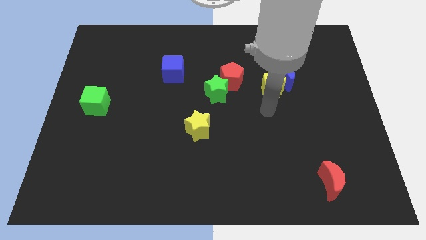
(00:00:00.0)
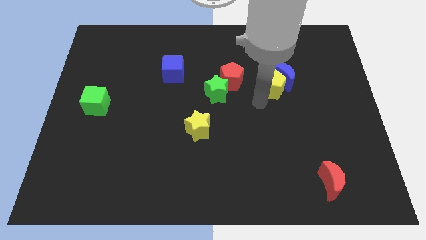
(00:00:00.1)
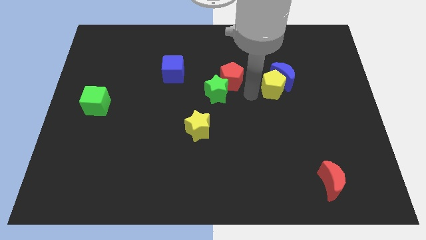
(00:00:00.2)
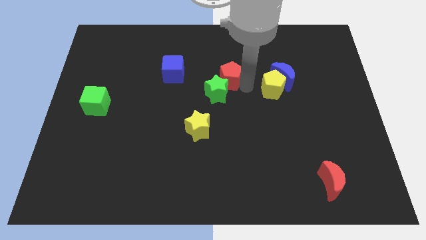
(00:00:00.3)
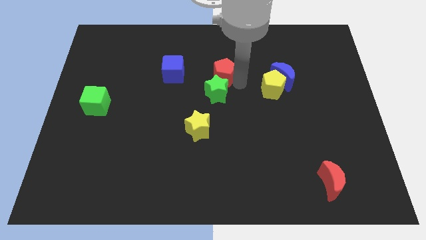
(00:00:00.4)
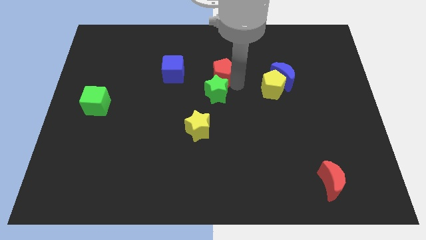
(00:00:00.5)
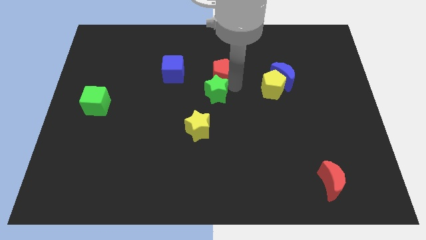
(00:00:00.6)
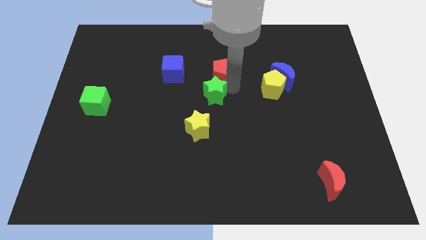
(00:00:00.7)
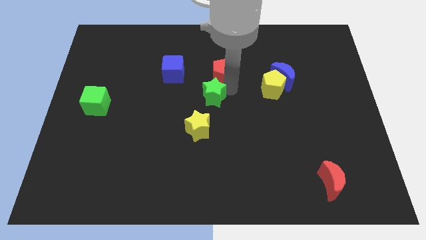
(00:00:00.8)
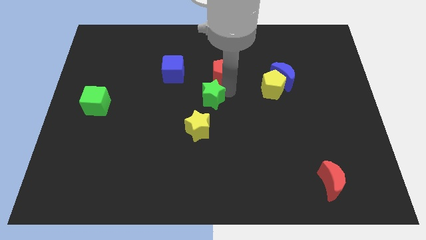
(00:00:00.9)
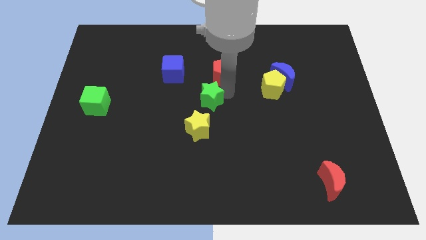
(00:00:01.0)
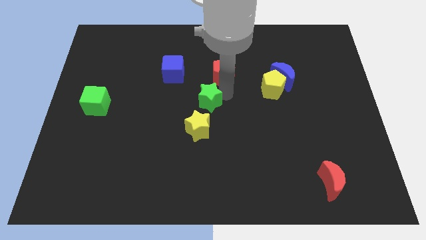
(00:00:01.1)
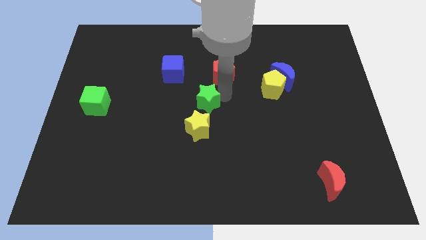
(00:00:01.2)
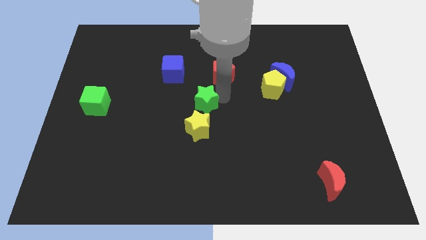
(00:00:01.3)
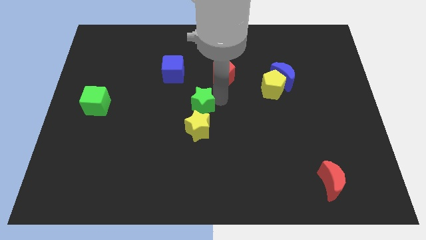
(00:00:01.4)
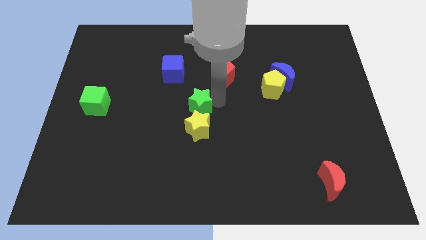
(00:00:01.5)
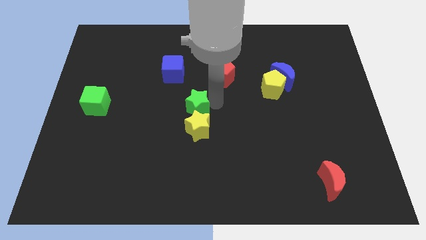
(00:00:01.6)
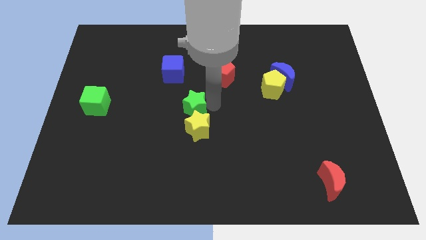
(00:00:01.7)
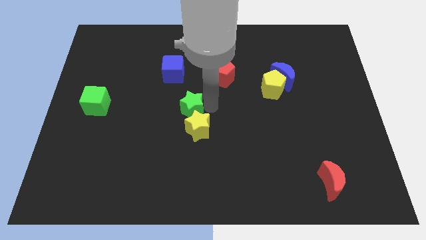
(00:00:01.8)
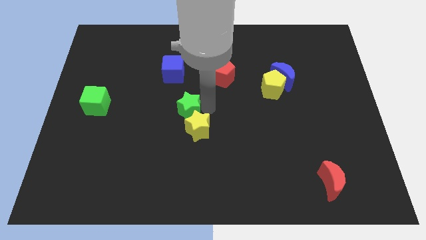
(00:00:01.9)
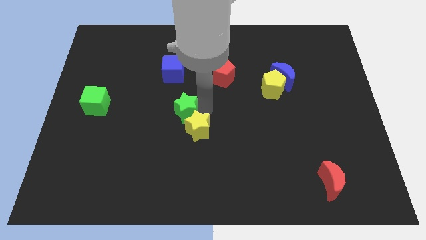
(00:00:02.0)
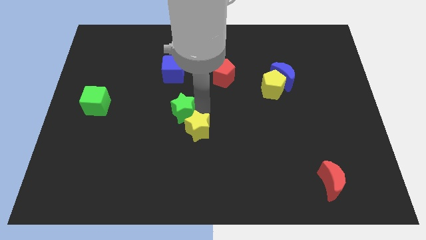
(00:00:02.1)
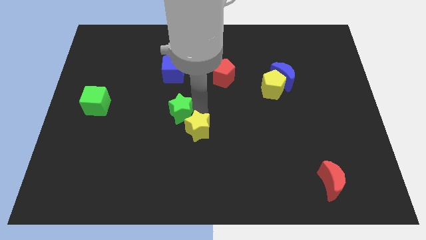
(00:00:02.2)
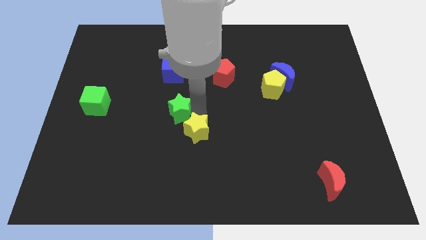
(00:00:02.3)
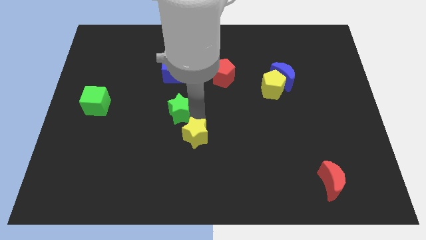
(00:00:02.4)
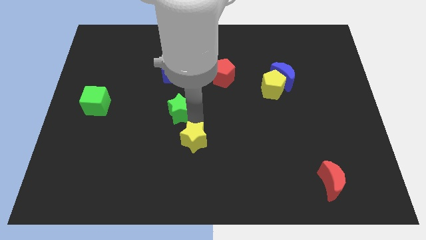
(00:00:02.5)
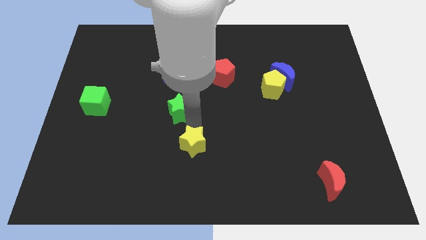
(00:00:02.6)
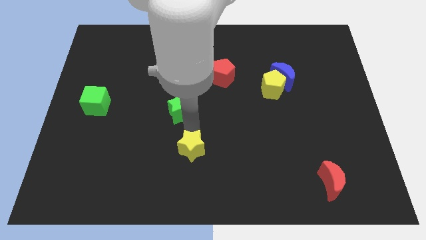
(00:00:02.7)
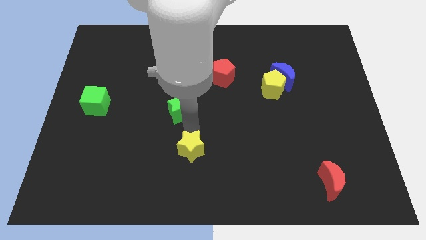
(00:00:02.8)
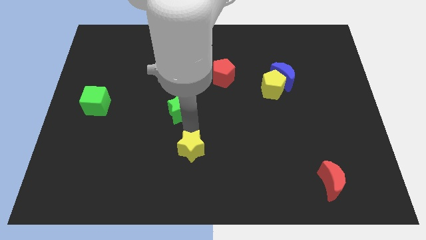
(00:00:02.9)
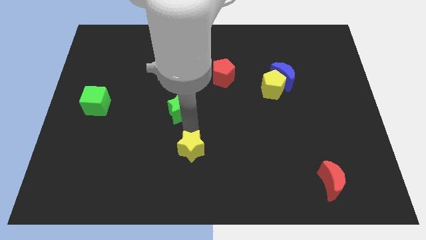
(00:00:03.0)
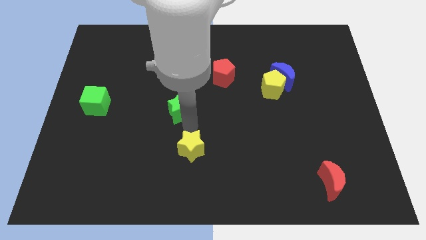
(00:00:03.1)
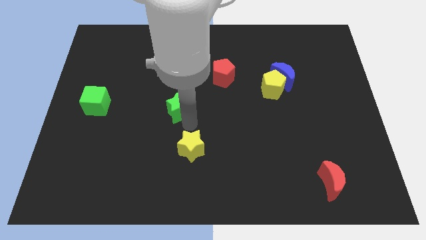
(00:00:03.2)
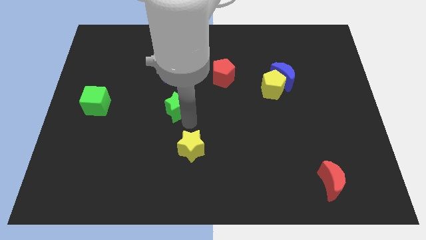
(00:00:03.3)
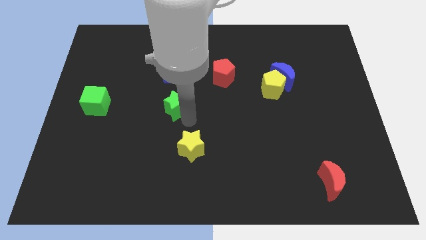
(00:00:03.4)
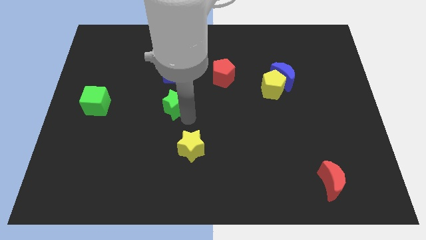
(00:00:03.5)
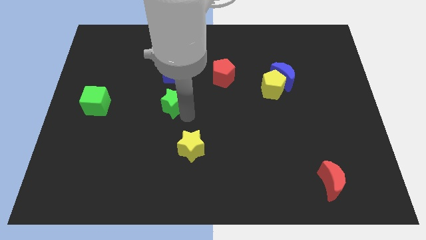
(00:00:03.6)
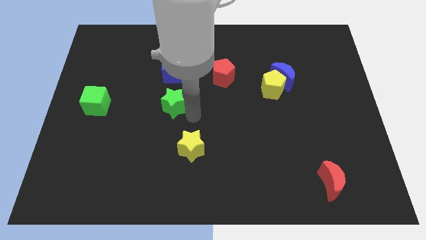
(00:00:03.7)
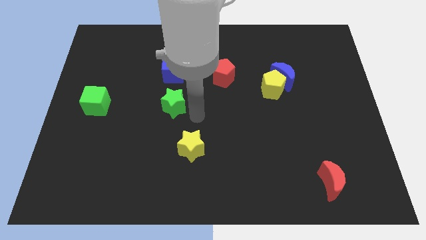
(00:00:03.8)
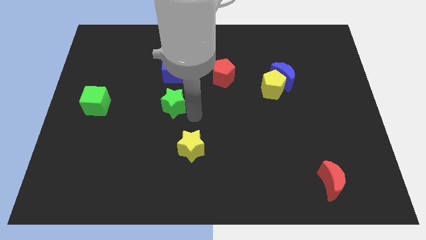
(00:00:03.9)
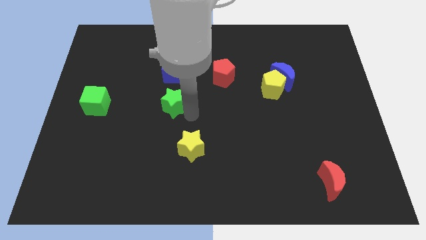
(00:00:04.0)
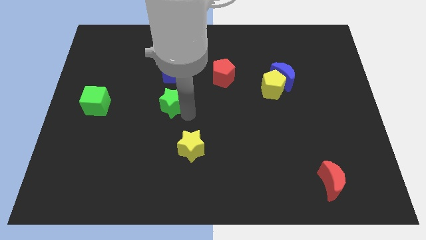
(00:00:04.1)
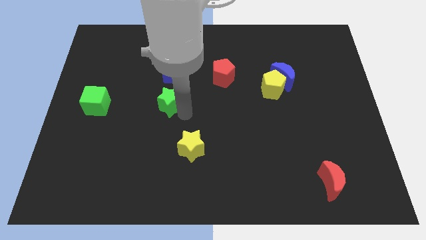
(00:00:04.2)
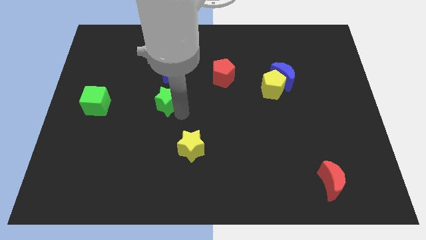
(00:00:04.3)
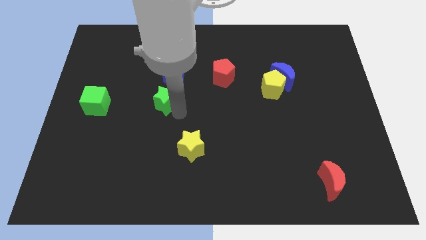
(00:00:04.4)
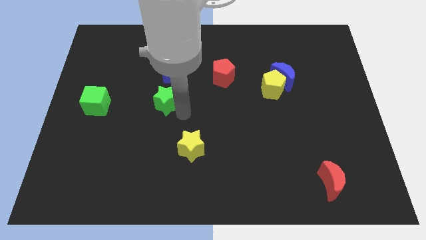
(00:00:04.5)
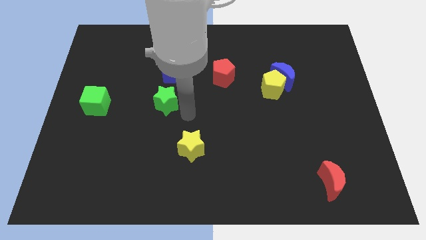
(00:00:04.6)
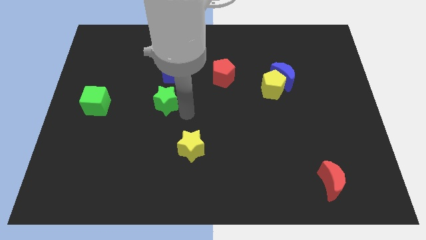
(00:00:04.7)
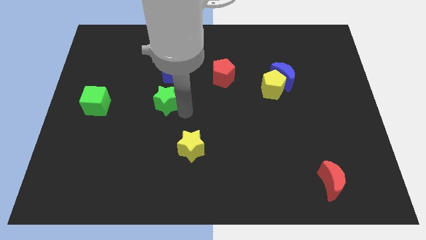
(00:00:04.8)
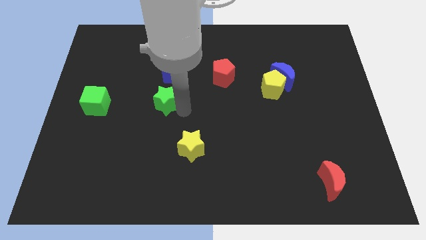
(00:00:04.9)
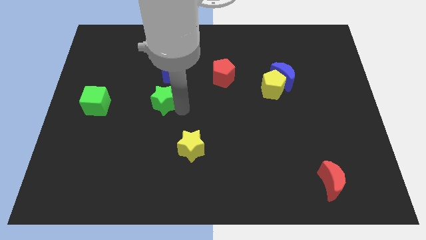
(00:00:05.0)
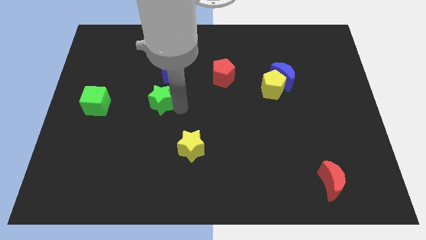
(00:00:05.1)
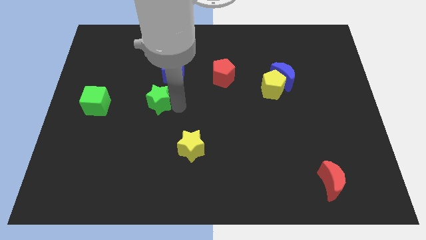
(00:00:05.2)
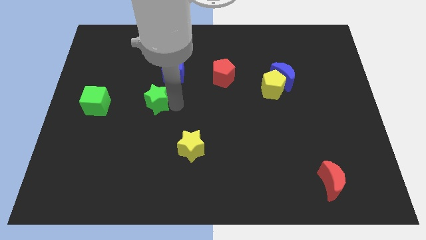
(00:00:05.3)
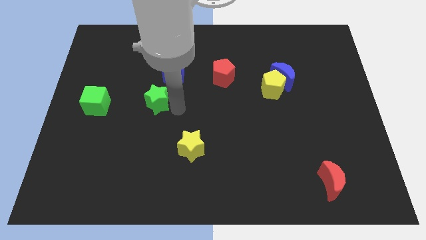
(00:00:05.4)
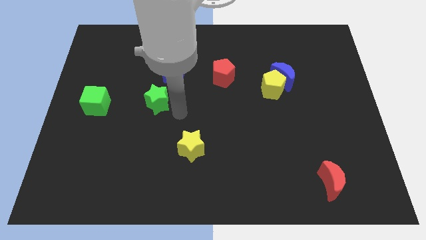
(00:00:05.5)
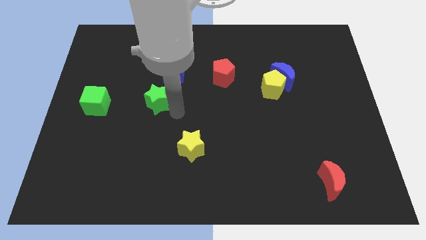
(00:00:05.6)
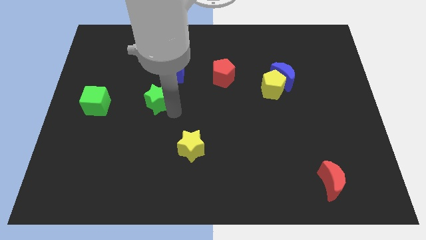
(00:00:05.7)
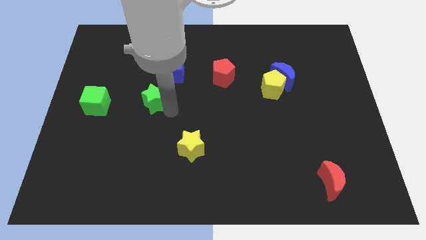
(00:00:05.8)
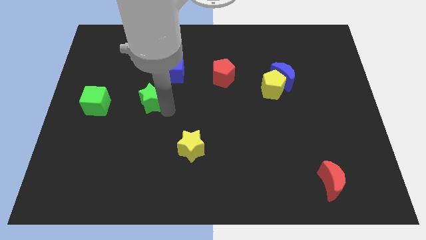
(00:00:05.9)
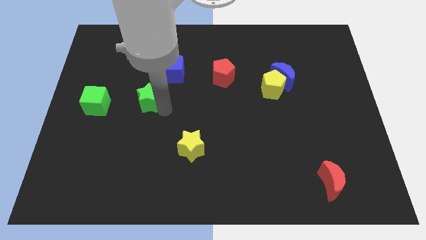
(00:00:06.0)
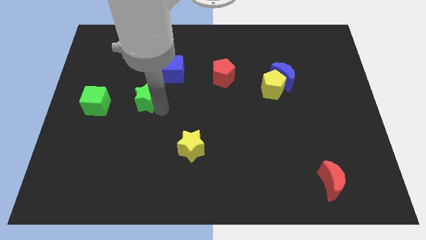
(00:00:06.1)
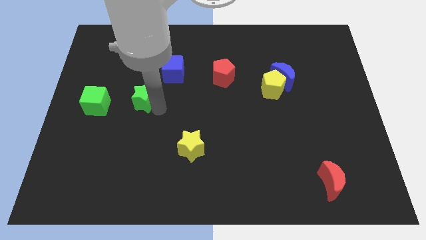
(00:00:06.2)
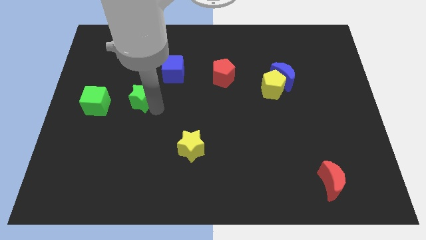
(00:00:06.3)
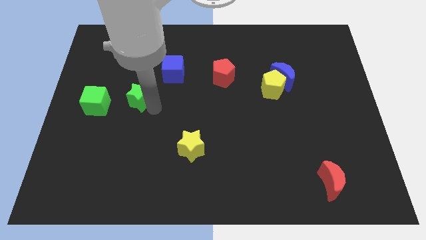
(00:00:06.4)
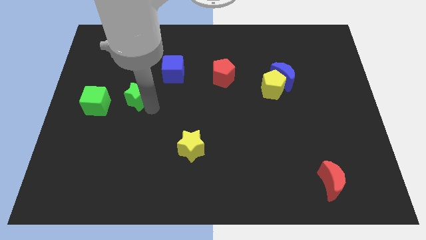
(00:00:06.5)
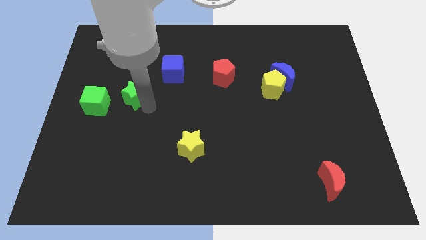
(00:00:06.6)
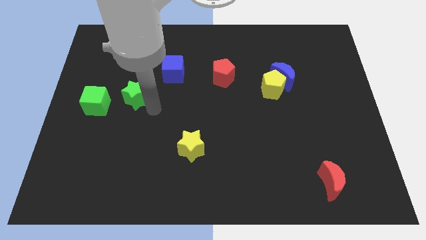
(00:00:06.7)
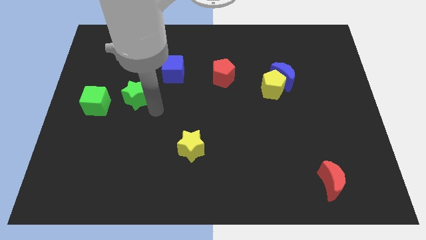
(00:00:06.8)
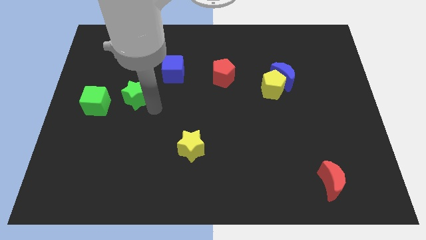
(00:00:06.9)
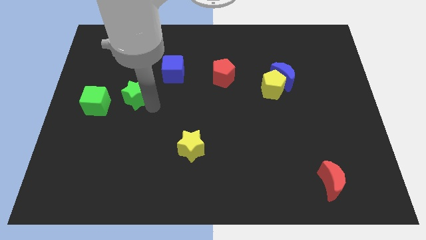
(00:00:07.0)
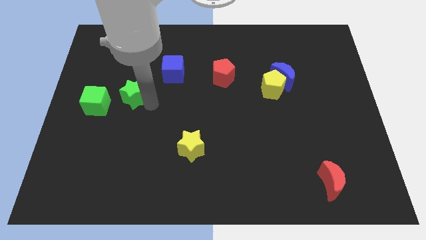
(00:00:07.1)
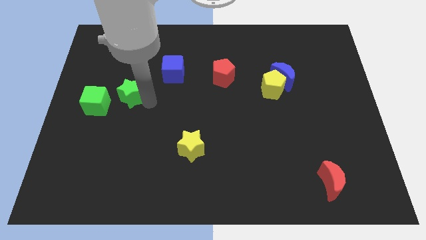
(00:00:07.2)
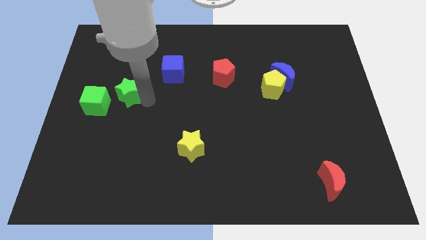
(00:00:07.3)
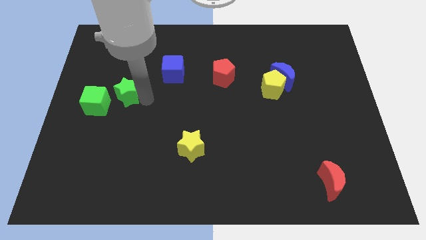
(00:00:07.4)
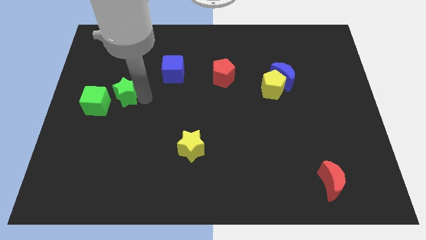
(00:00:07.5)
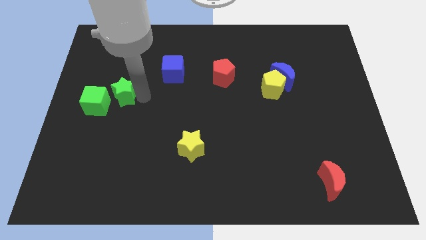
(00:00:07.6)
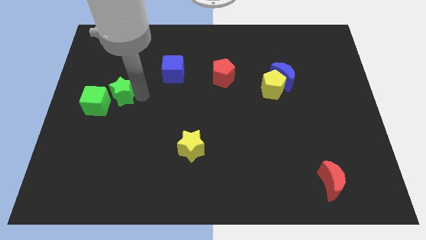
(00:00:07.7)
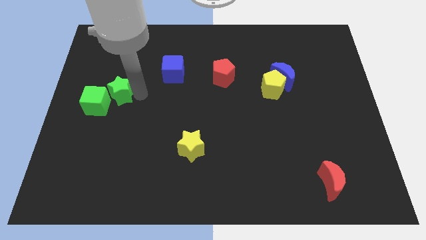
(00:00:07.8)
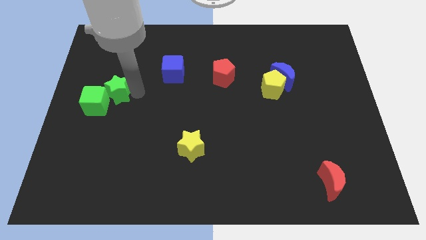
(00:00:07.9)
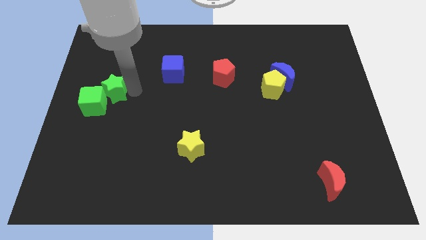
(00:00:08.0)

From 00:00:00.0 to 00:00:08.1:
put the green star above the green cube
